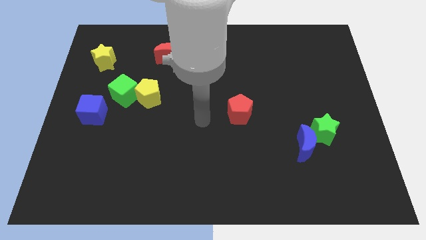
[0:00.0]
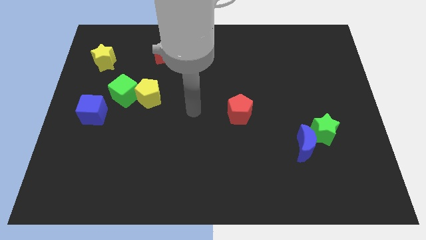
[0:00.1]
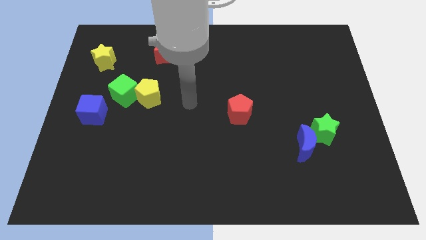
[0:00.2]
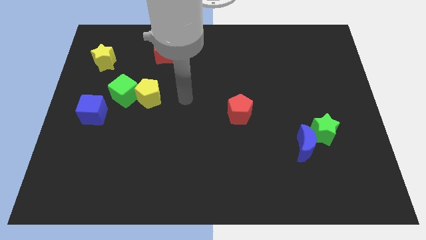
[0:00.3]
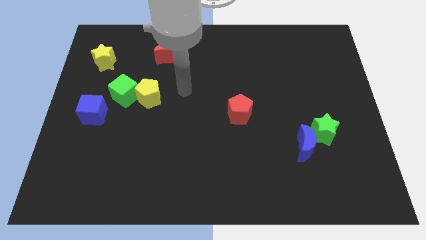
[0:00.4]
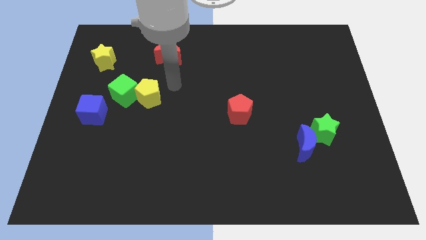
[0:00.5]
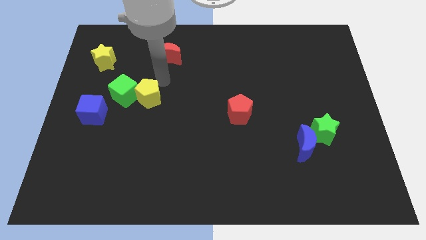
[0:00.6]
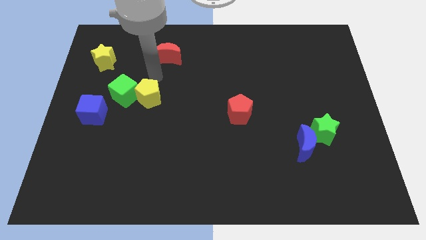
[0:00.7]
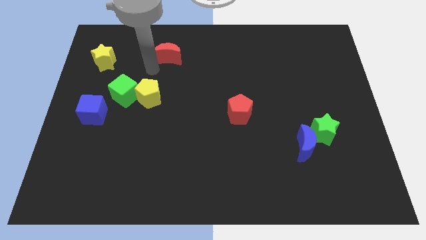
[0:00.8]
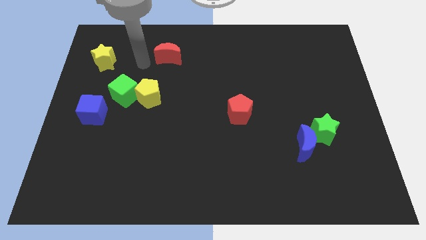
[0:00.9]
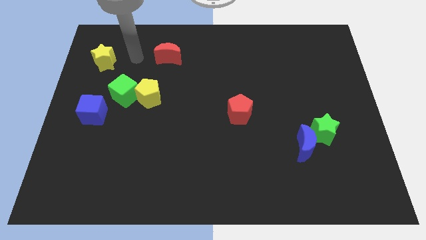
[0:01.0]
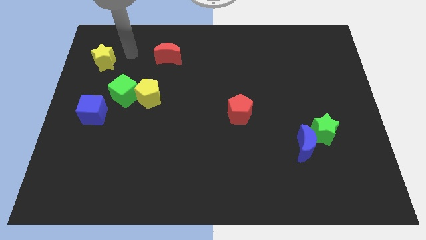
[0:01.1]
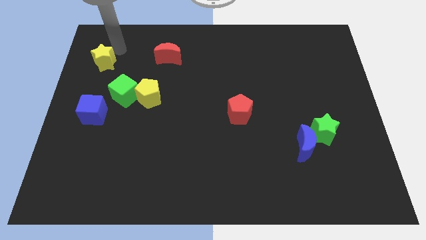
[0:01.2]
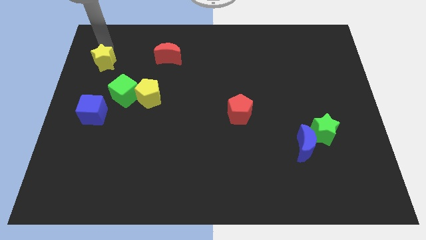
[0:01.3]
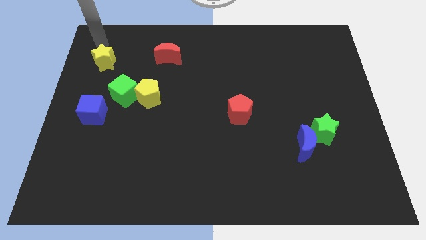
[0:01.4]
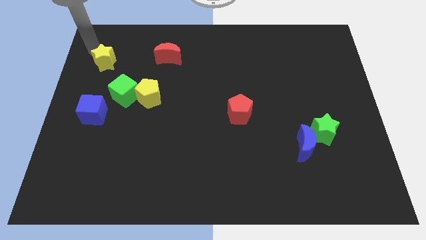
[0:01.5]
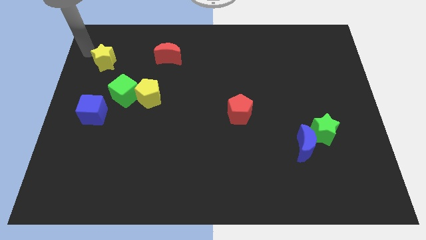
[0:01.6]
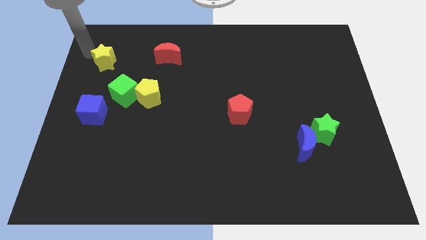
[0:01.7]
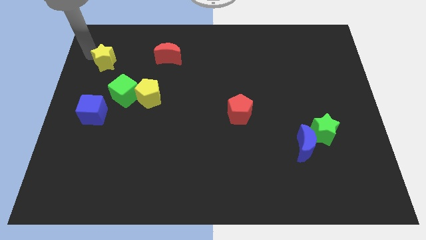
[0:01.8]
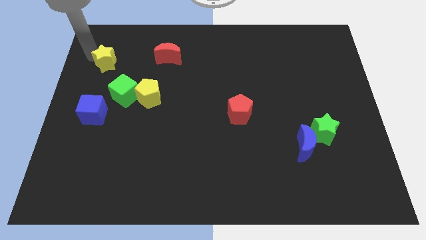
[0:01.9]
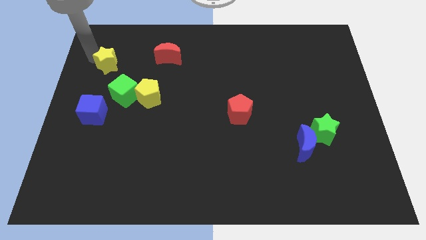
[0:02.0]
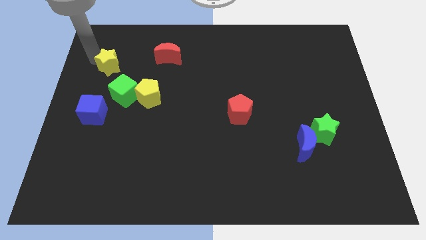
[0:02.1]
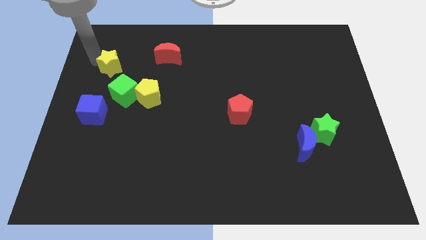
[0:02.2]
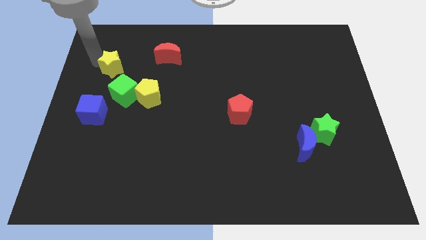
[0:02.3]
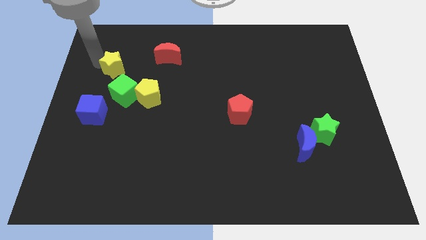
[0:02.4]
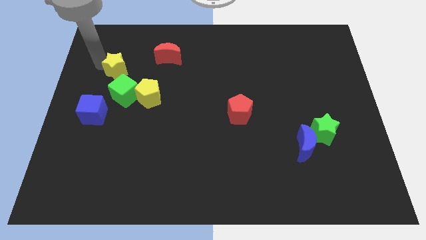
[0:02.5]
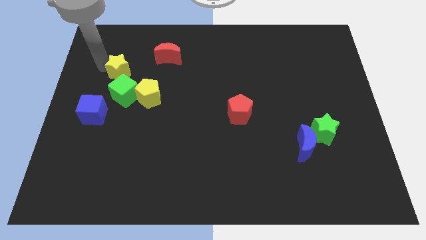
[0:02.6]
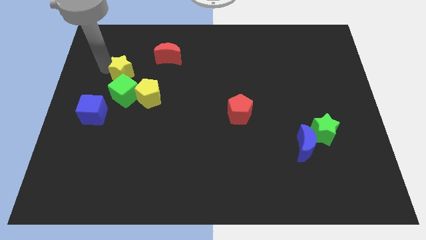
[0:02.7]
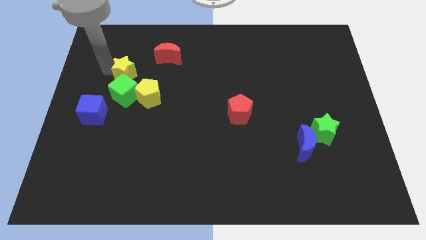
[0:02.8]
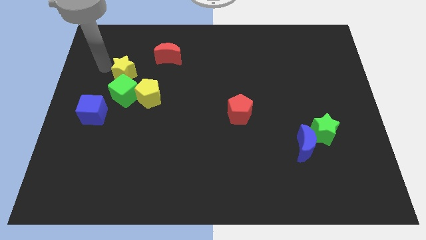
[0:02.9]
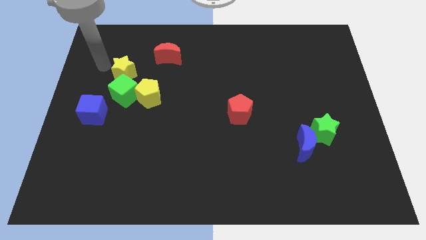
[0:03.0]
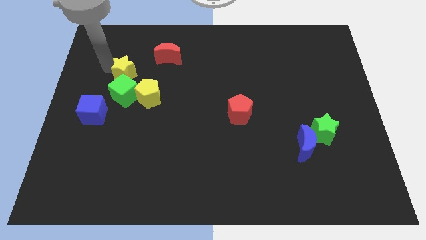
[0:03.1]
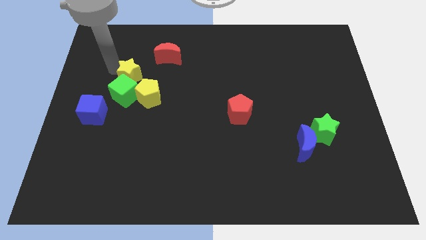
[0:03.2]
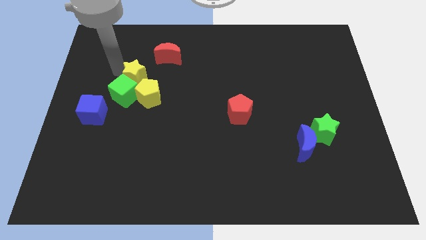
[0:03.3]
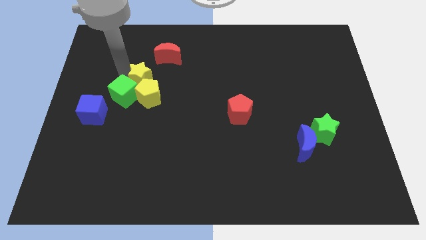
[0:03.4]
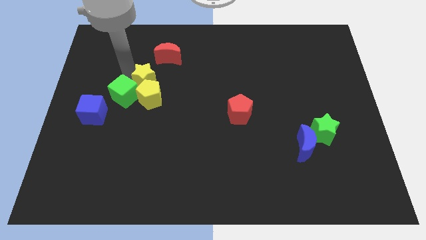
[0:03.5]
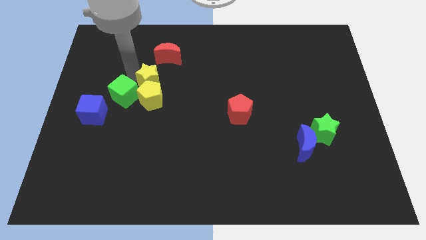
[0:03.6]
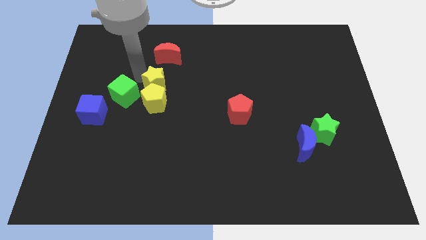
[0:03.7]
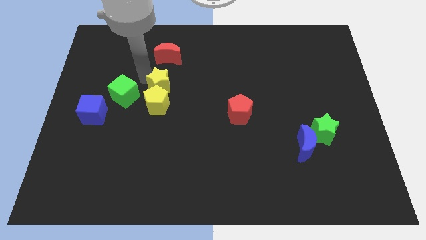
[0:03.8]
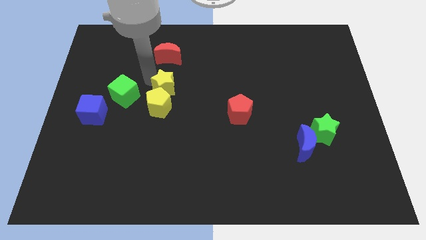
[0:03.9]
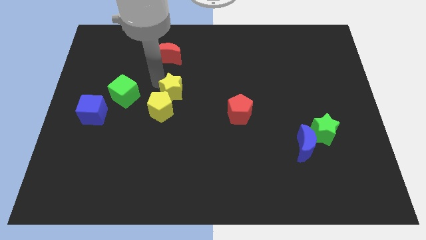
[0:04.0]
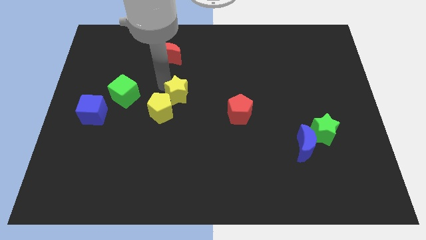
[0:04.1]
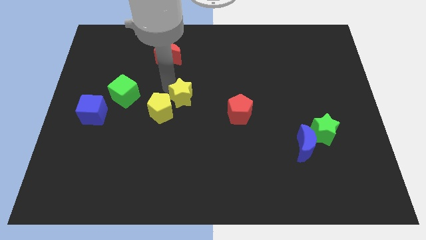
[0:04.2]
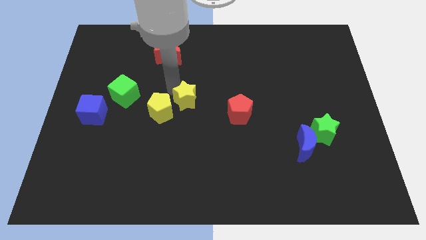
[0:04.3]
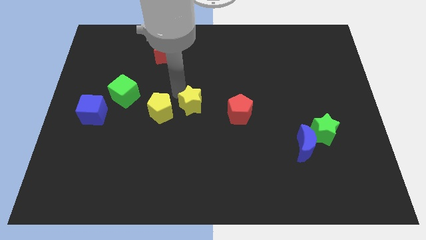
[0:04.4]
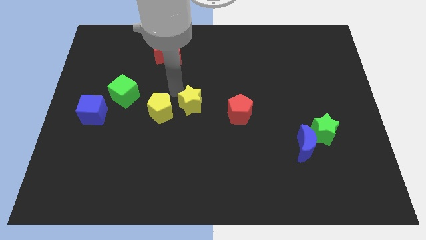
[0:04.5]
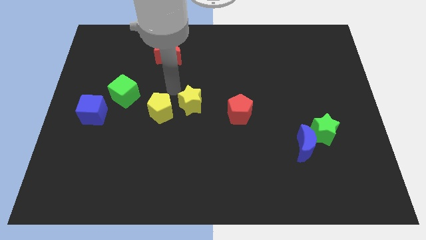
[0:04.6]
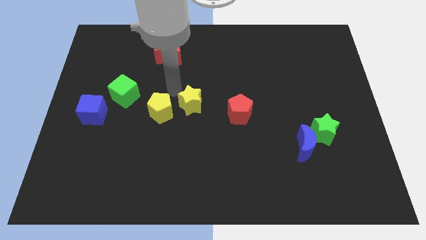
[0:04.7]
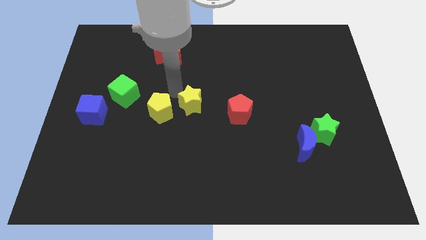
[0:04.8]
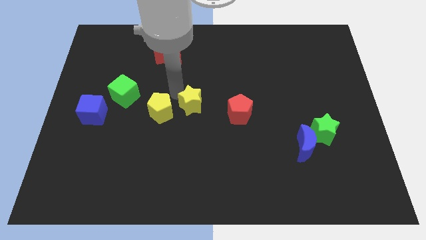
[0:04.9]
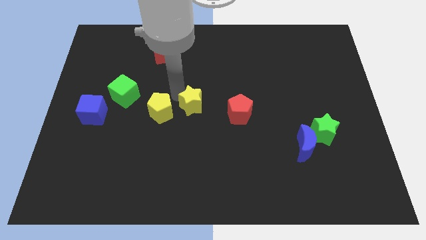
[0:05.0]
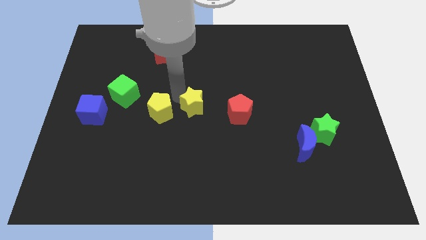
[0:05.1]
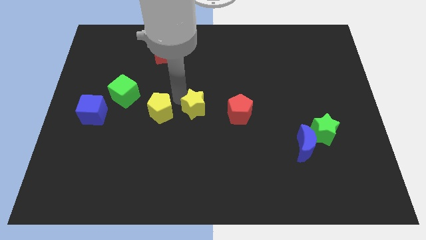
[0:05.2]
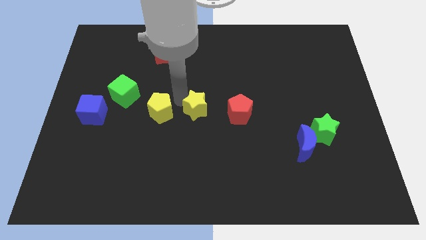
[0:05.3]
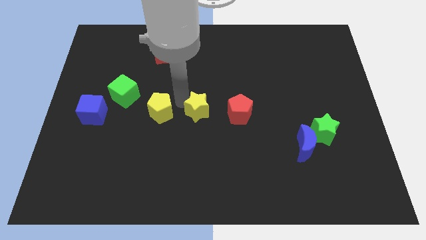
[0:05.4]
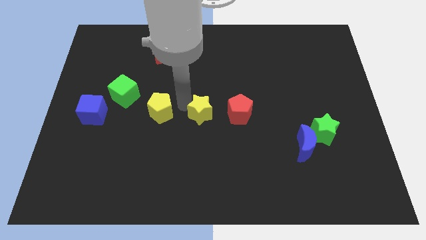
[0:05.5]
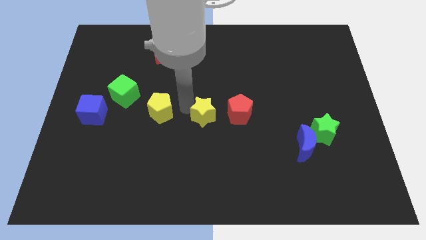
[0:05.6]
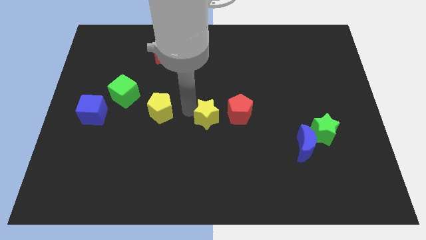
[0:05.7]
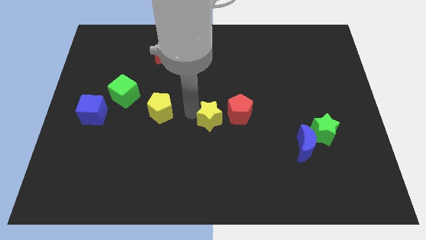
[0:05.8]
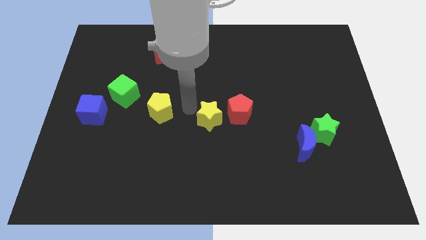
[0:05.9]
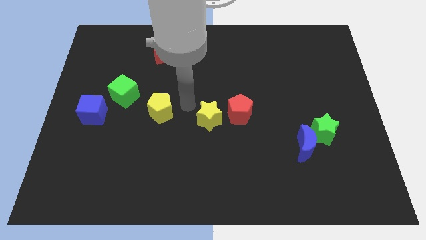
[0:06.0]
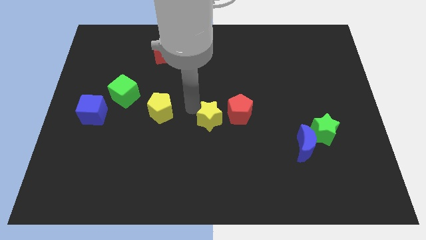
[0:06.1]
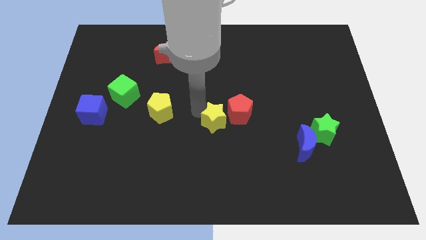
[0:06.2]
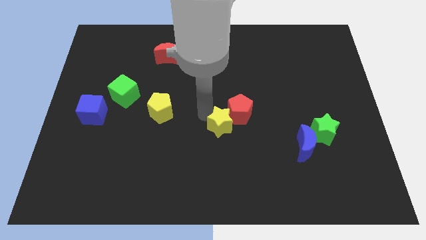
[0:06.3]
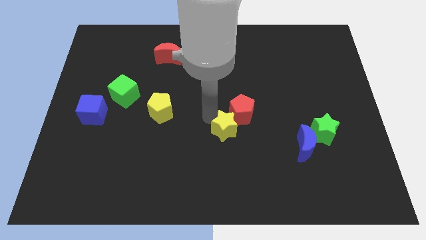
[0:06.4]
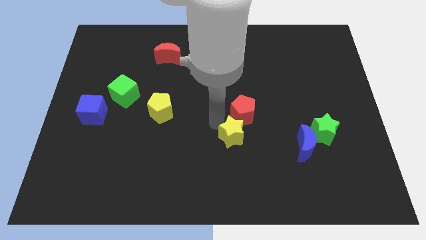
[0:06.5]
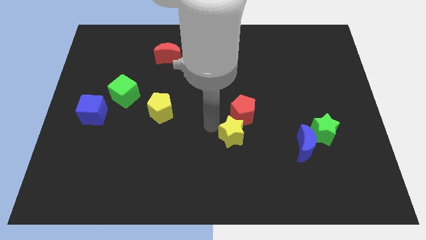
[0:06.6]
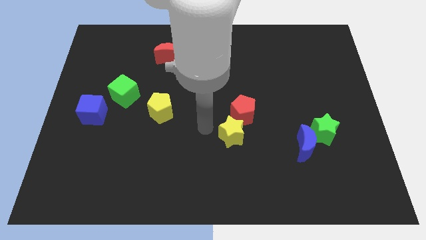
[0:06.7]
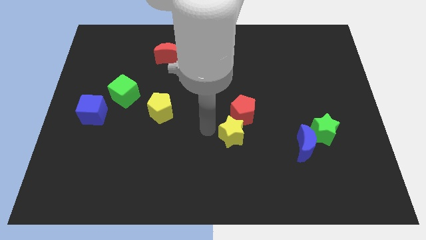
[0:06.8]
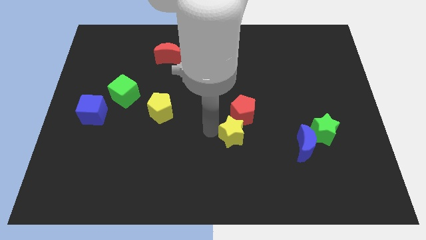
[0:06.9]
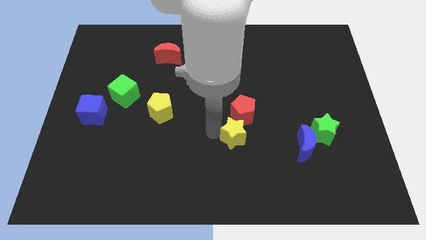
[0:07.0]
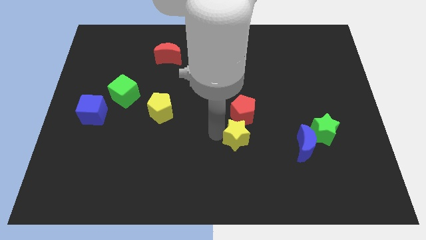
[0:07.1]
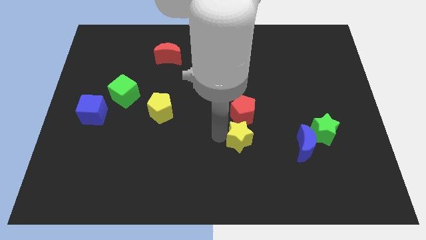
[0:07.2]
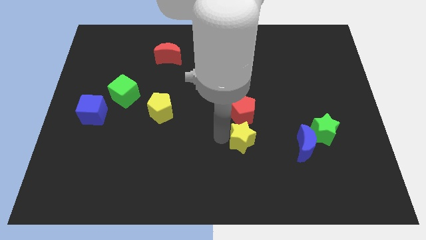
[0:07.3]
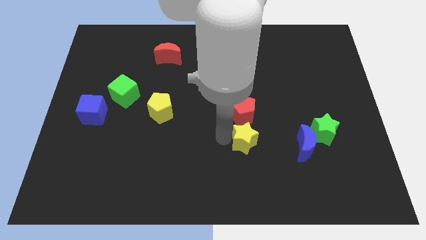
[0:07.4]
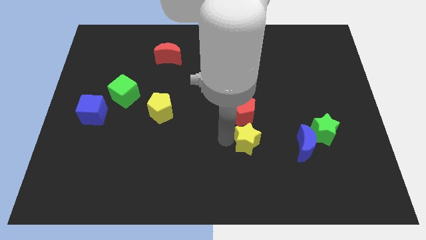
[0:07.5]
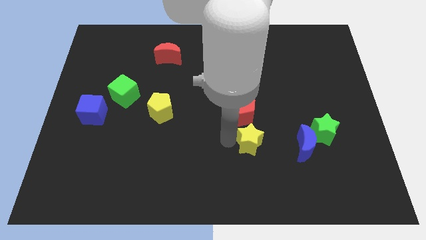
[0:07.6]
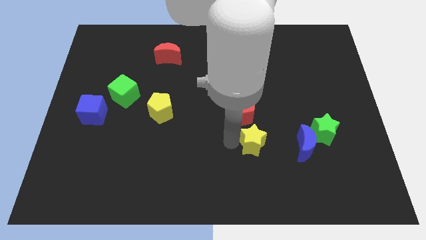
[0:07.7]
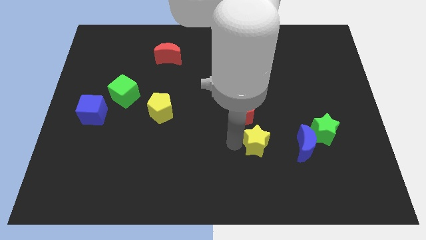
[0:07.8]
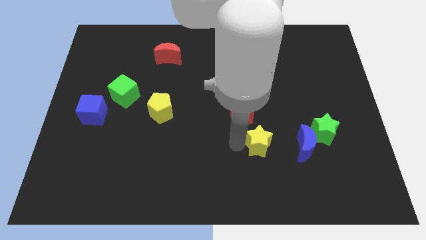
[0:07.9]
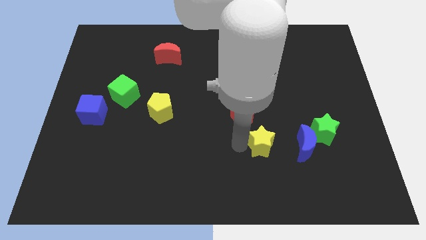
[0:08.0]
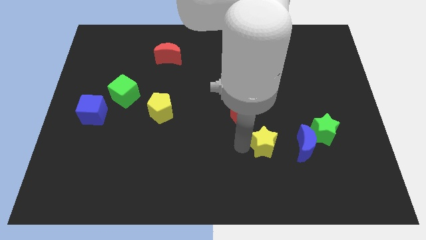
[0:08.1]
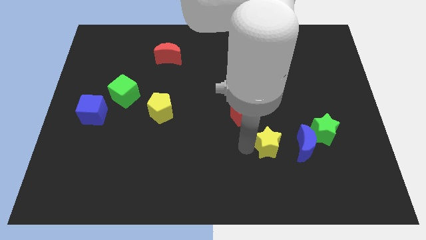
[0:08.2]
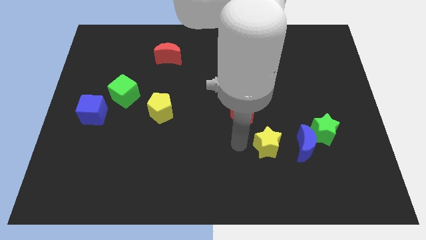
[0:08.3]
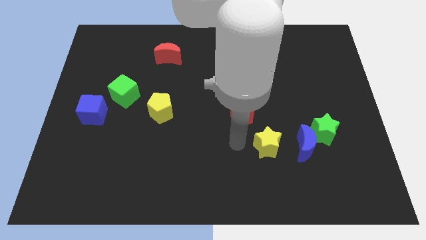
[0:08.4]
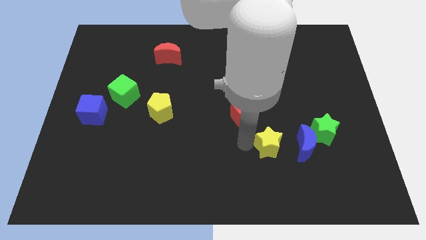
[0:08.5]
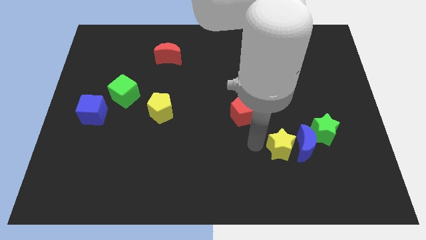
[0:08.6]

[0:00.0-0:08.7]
move the yellow star close to the blue moon
